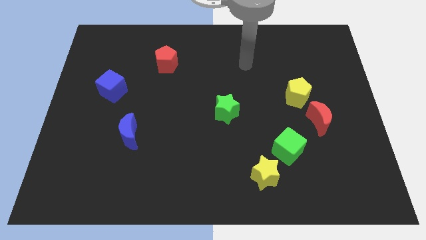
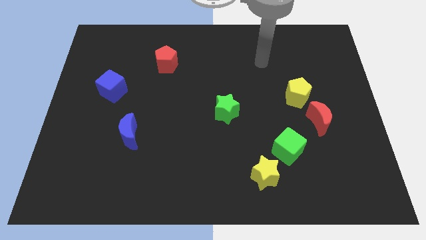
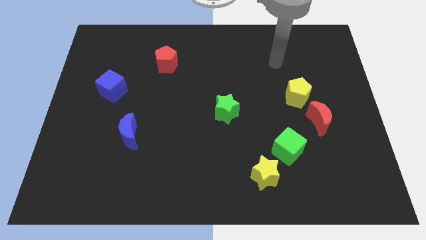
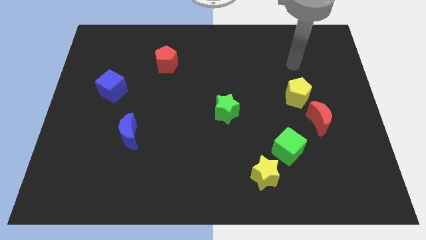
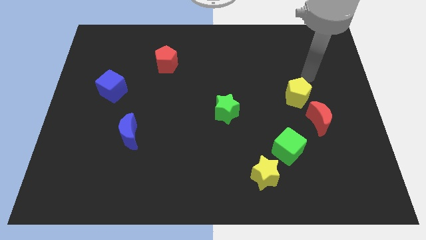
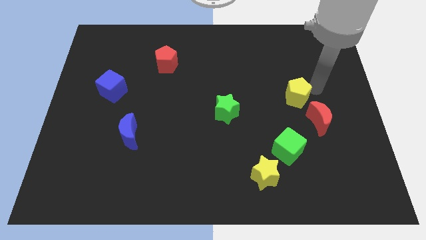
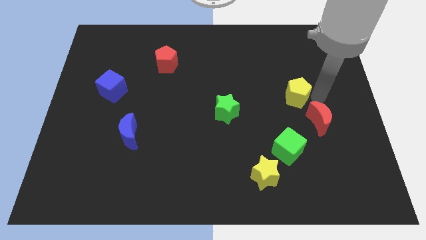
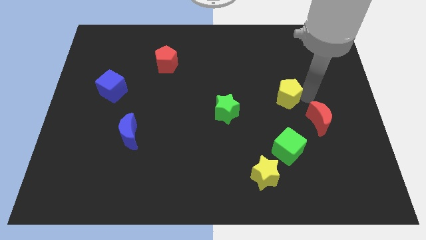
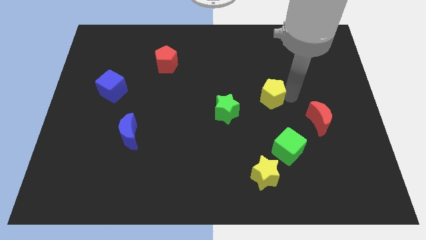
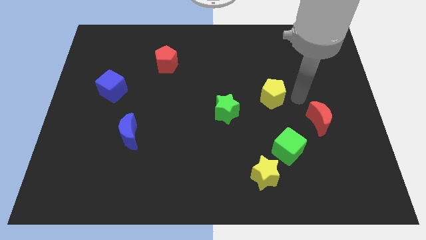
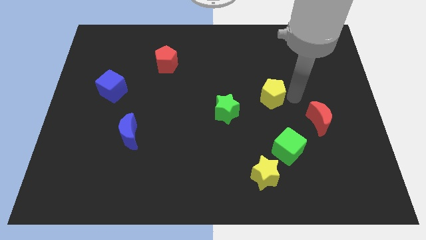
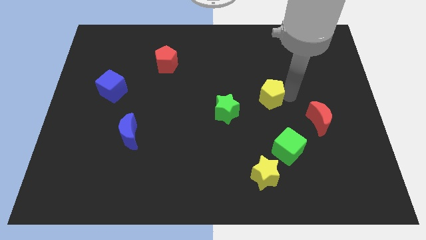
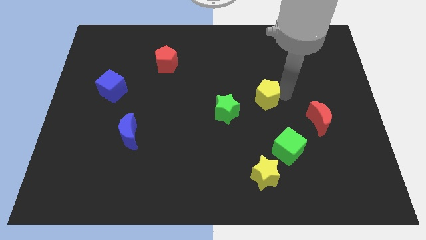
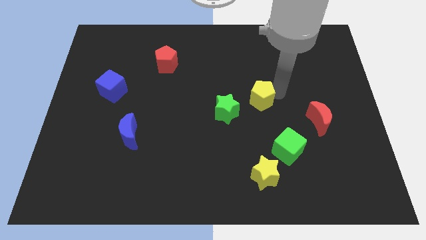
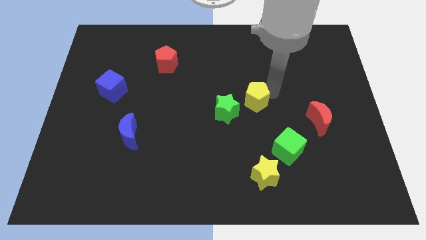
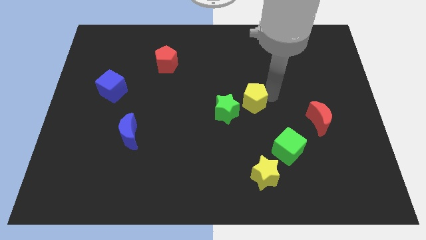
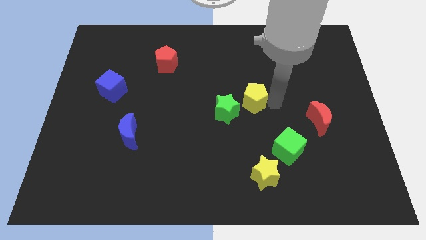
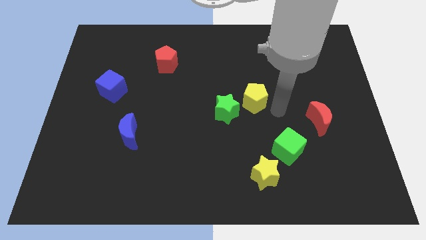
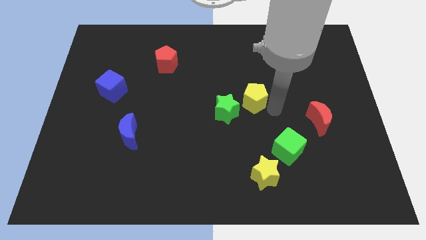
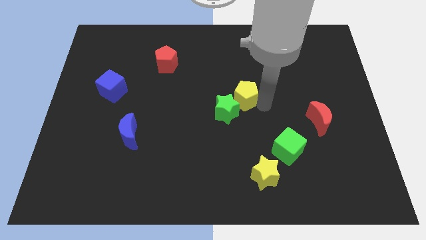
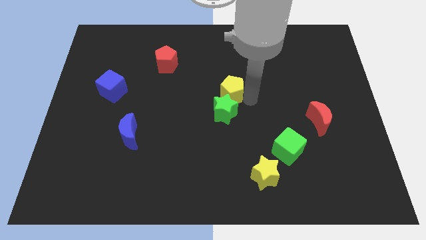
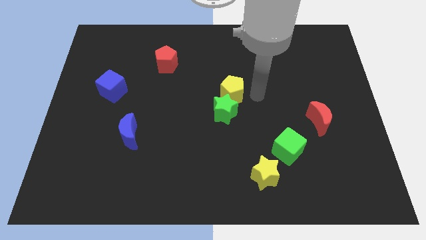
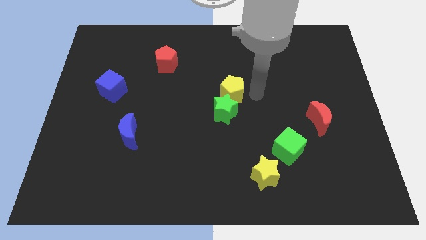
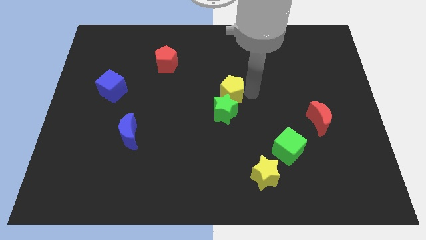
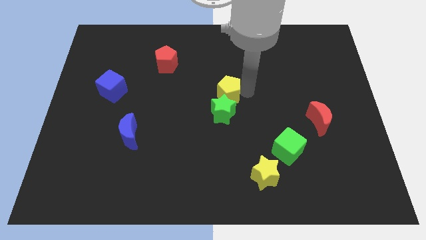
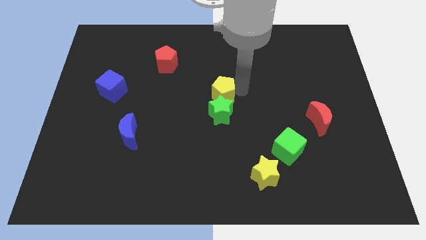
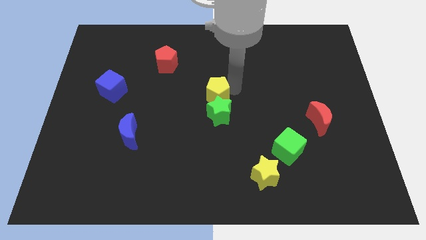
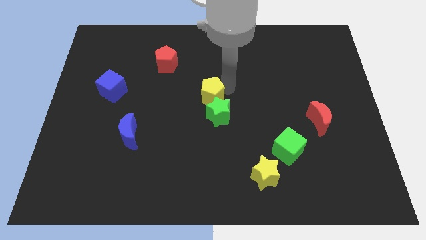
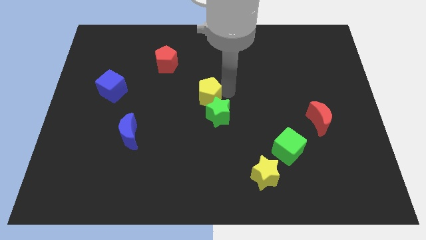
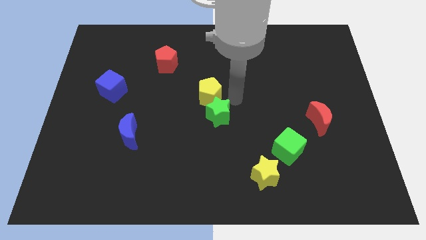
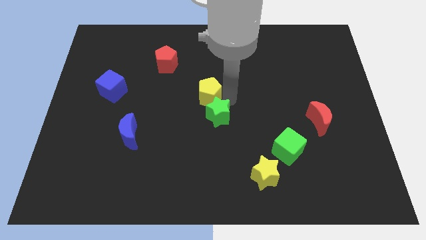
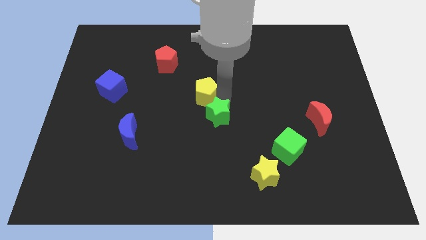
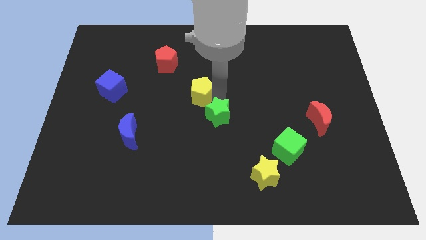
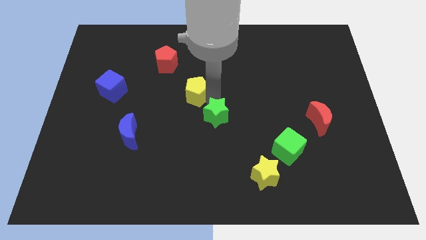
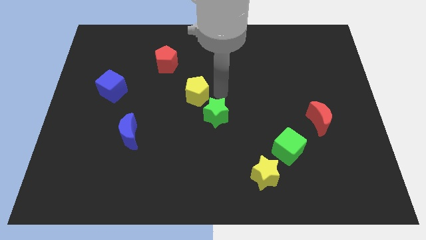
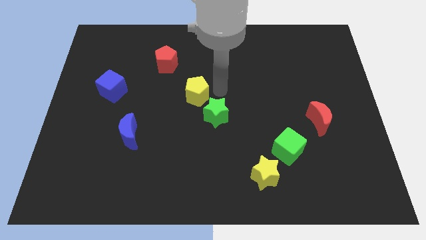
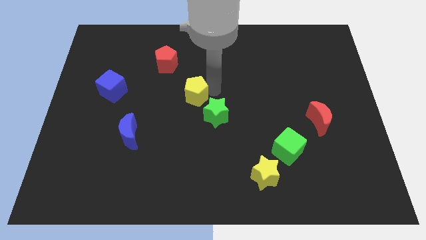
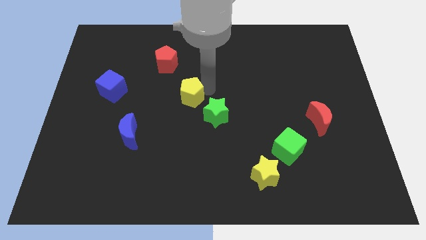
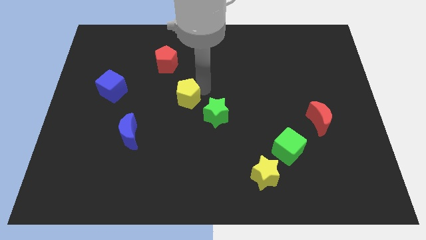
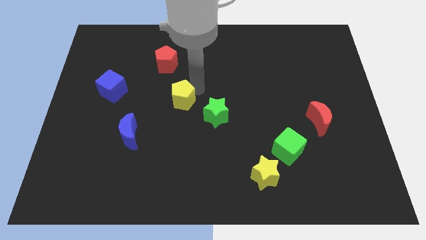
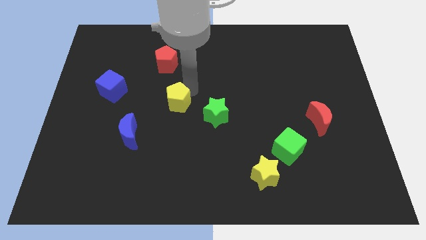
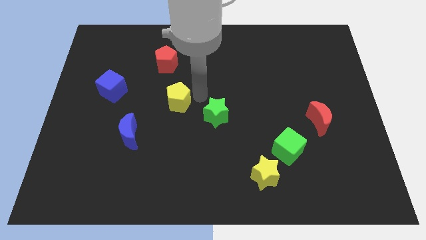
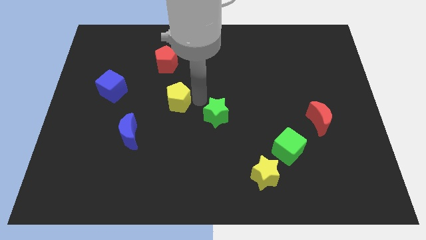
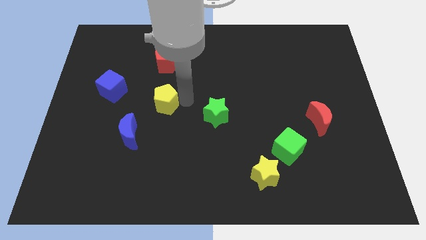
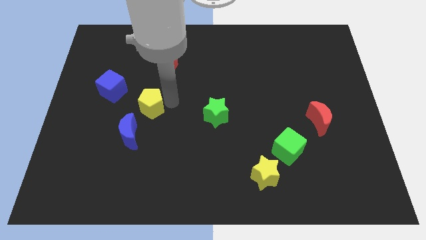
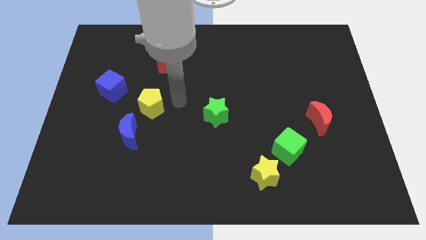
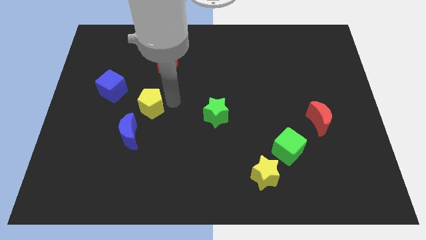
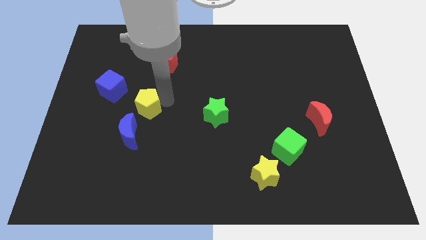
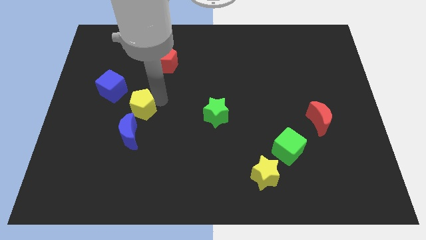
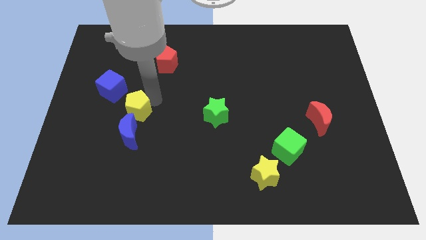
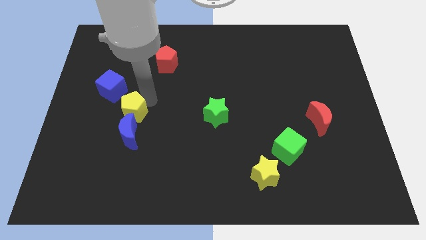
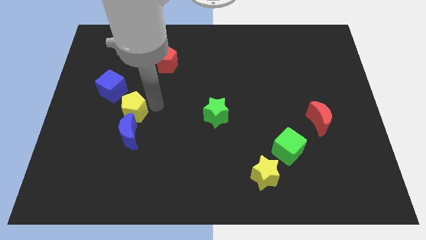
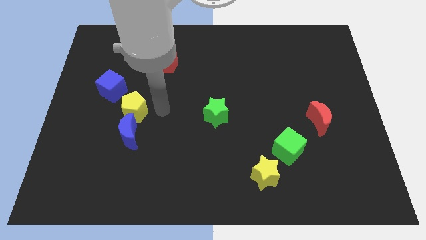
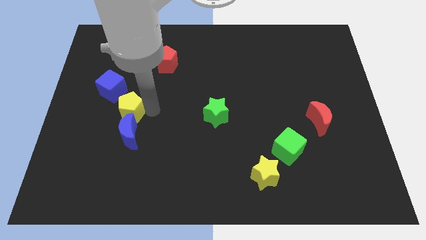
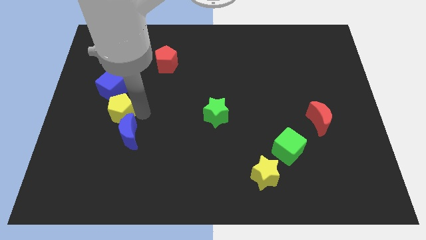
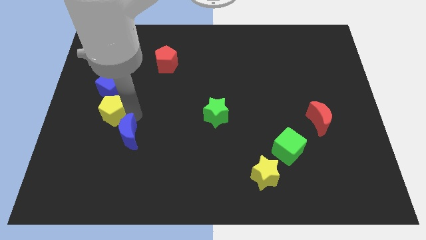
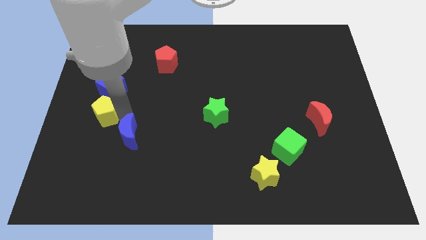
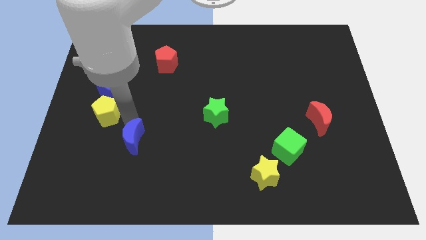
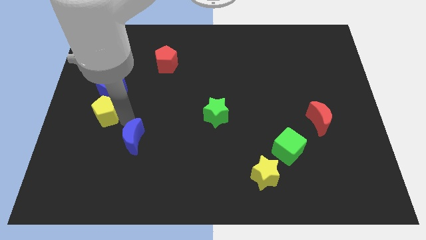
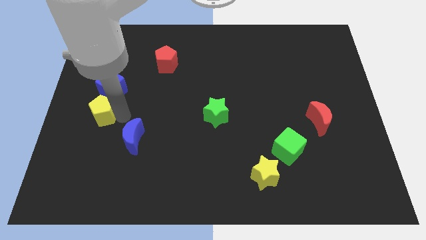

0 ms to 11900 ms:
put the yellow pentagon to the left side of the board

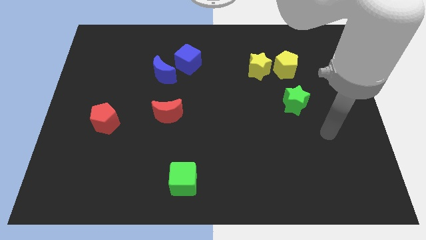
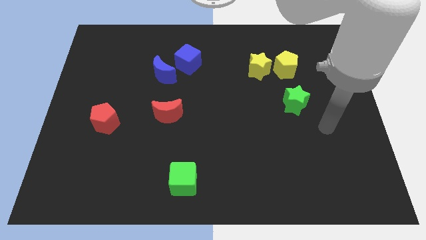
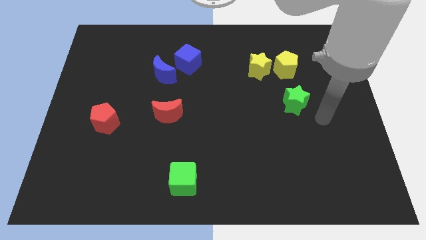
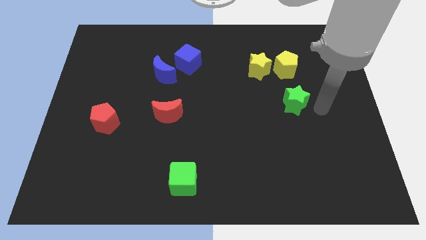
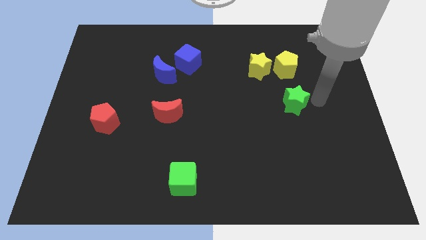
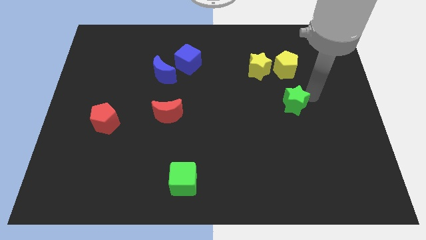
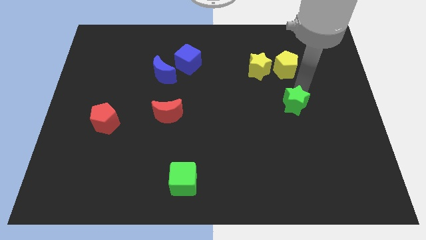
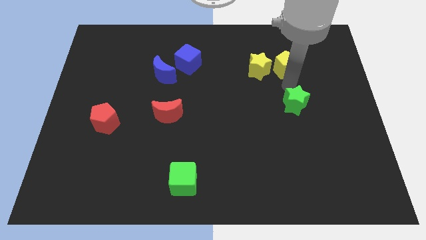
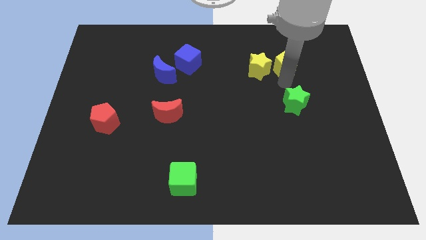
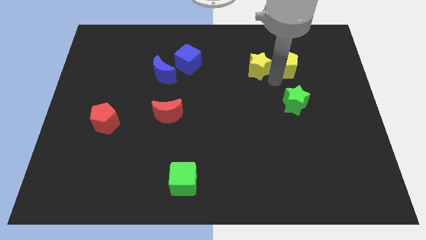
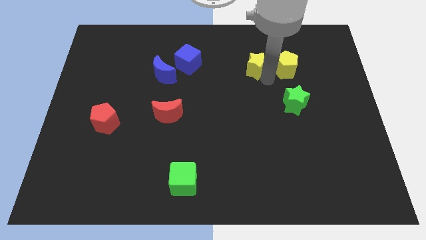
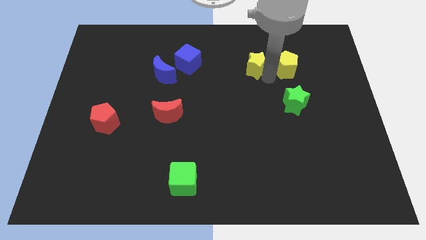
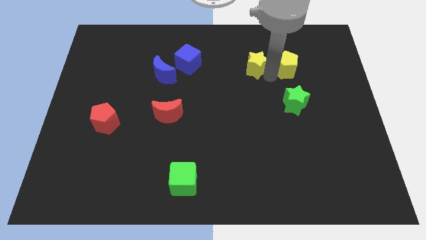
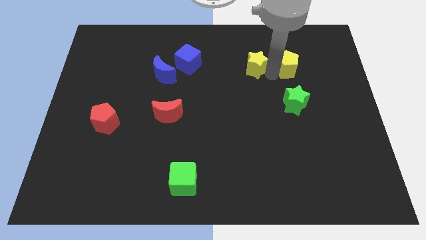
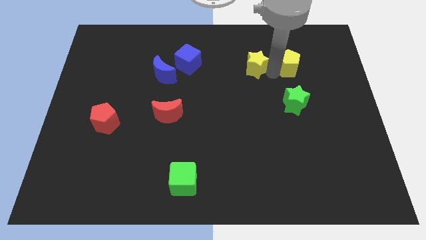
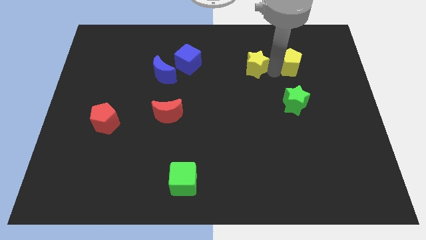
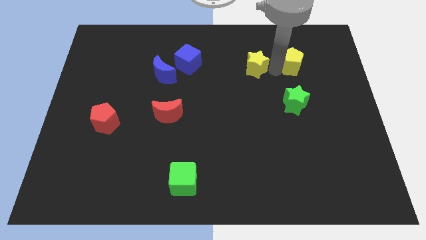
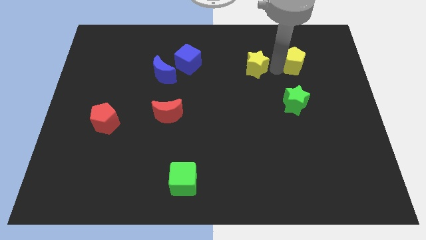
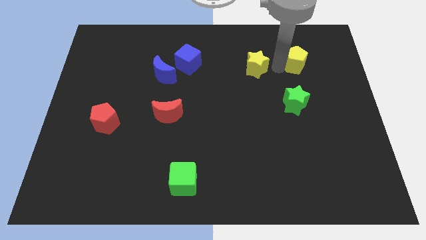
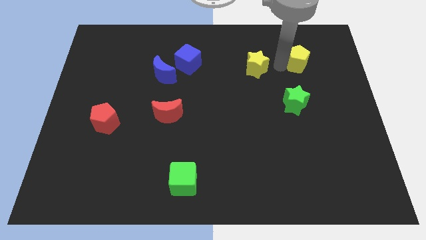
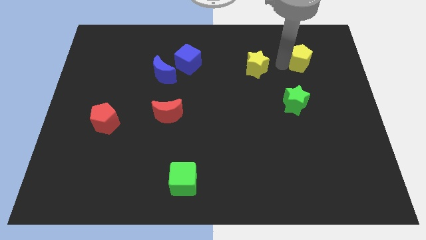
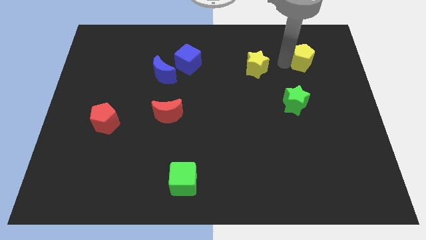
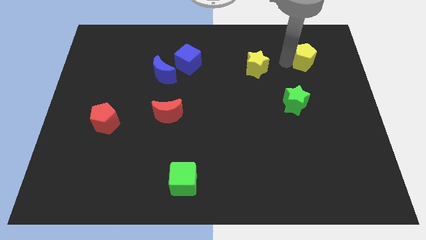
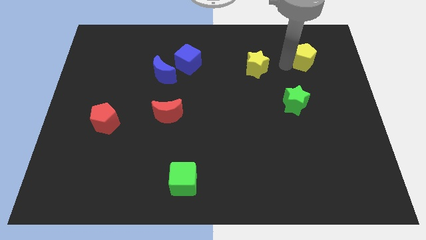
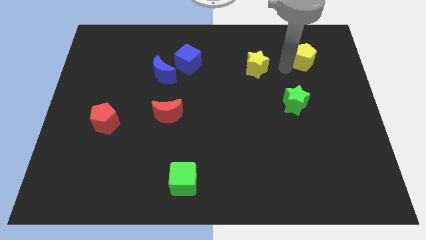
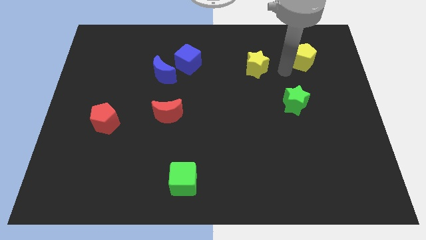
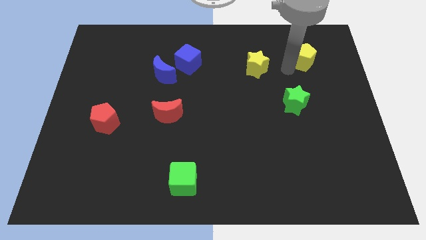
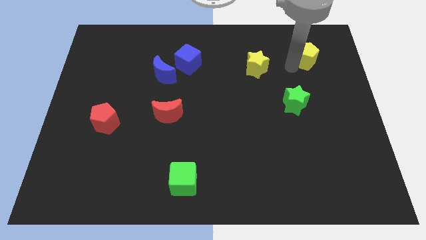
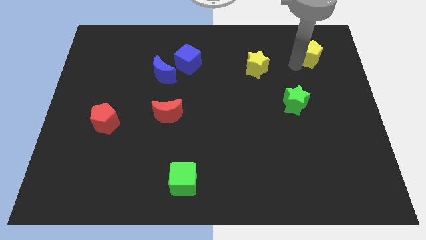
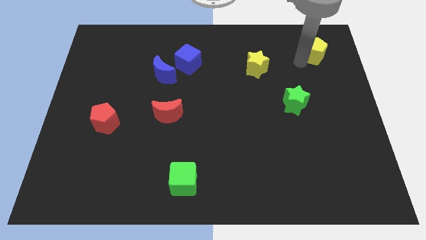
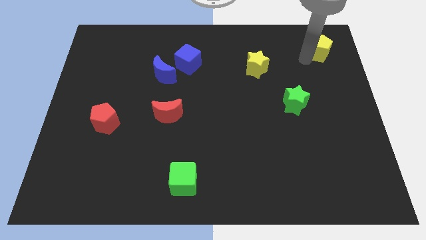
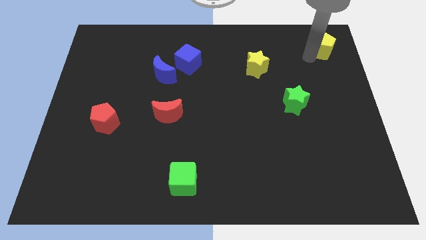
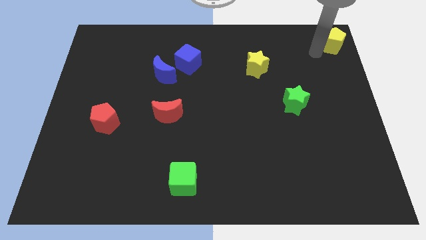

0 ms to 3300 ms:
put the yellow pentagon to the top right
